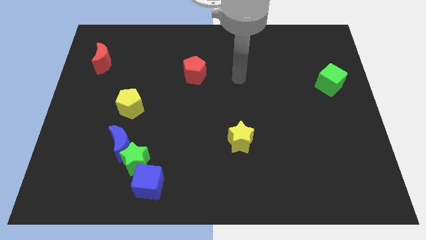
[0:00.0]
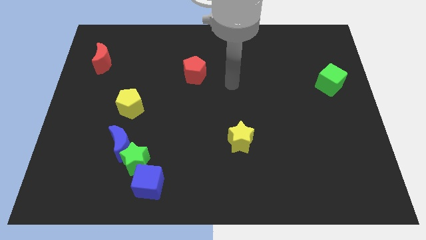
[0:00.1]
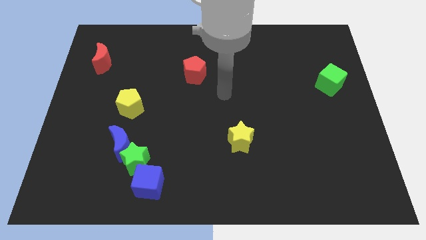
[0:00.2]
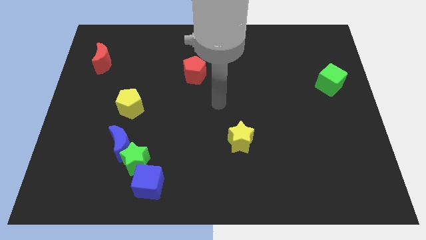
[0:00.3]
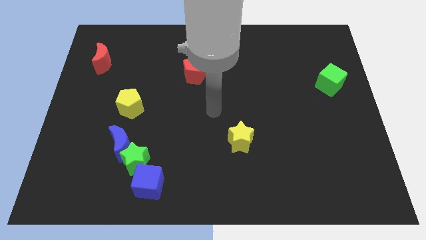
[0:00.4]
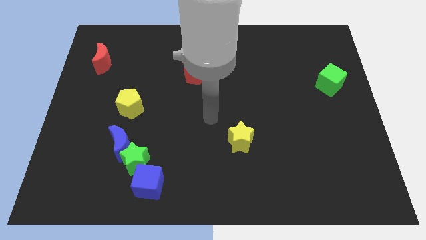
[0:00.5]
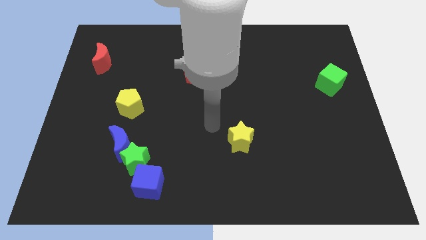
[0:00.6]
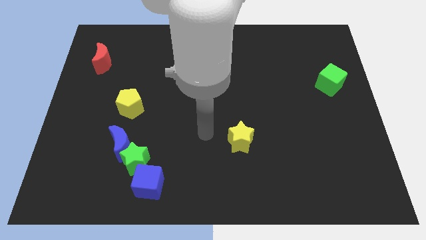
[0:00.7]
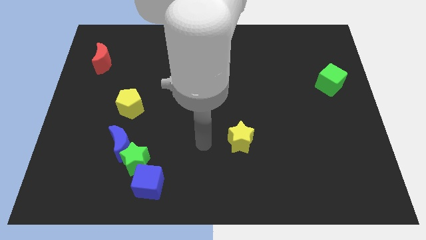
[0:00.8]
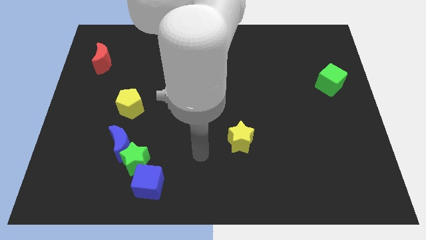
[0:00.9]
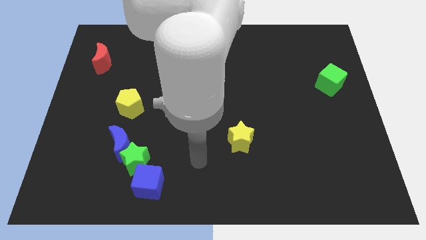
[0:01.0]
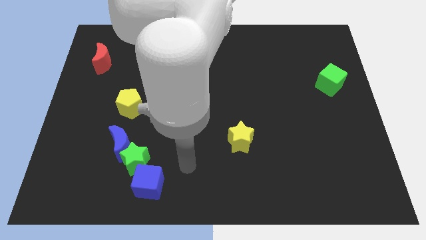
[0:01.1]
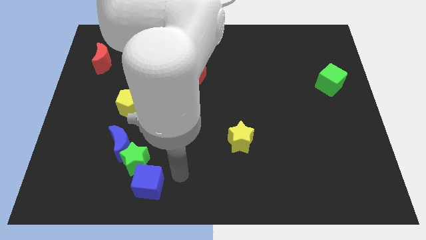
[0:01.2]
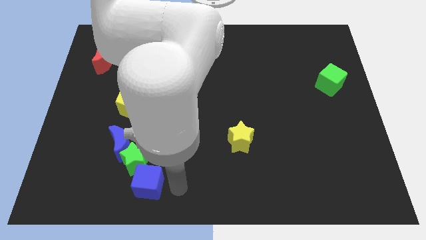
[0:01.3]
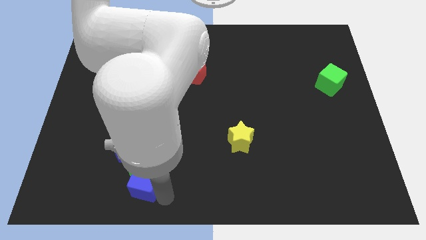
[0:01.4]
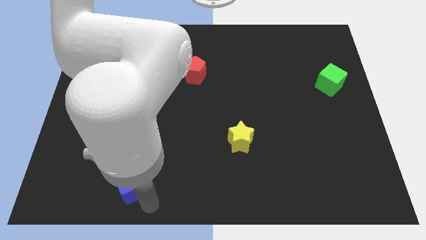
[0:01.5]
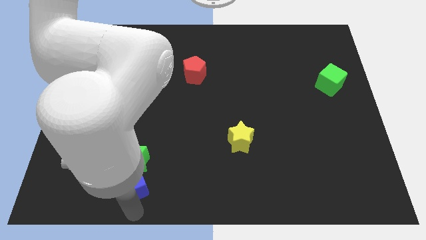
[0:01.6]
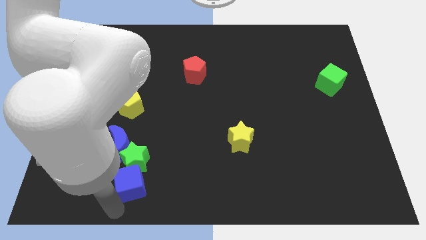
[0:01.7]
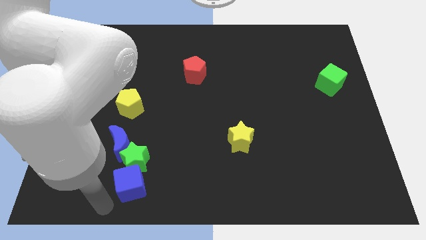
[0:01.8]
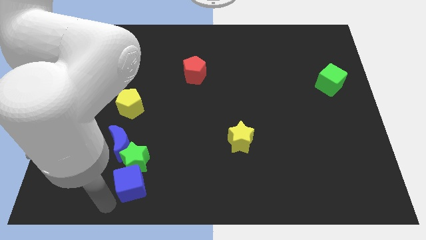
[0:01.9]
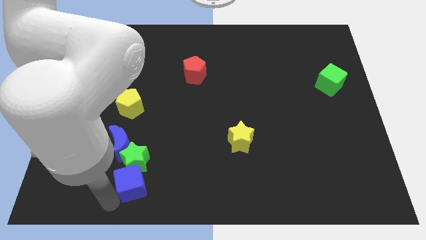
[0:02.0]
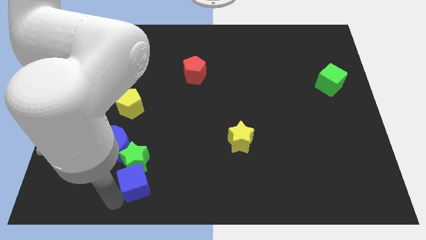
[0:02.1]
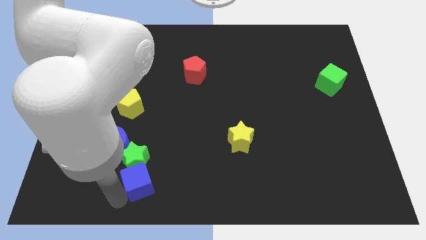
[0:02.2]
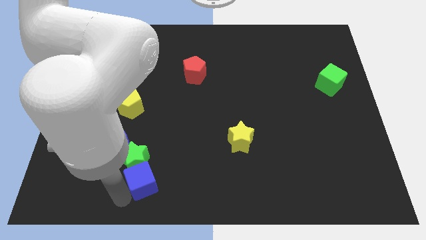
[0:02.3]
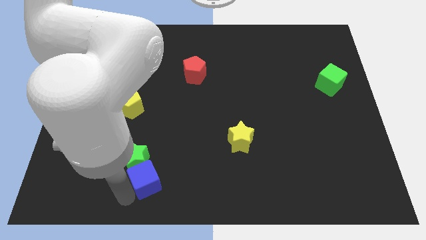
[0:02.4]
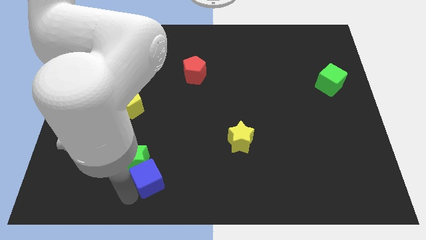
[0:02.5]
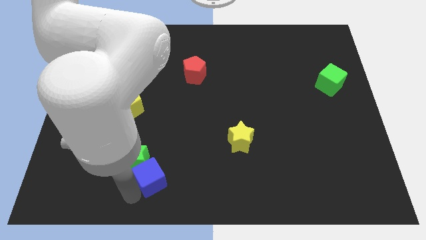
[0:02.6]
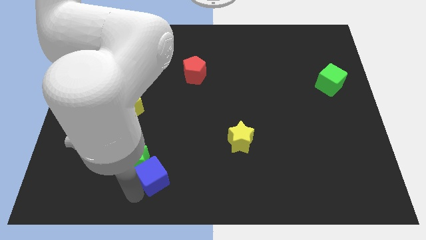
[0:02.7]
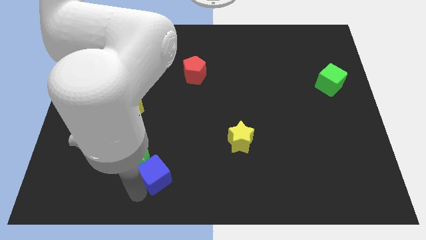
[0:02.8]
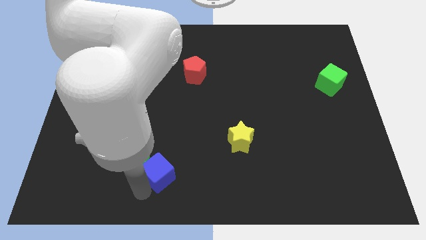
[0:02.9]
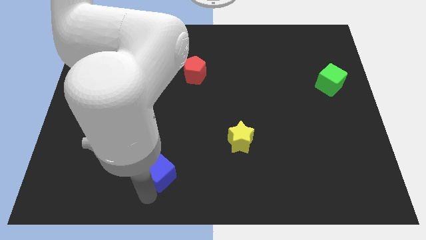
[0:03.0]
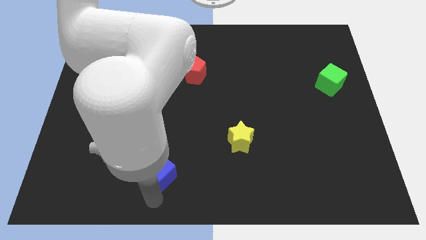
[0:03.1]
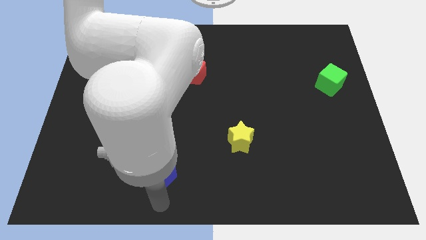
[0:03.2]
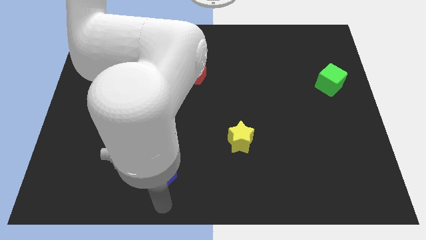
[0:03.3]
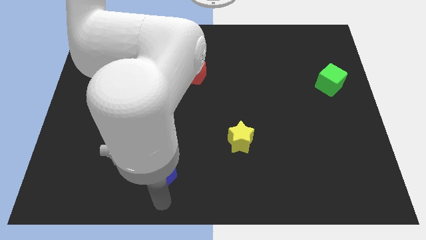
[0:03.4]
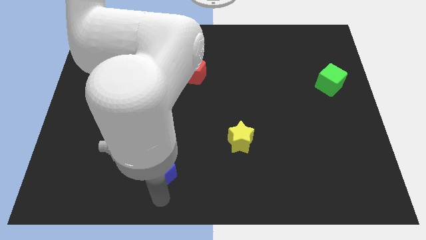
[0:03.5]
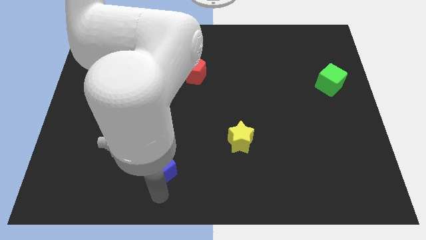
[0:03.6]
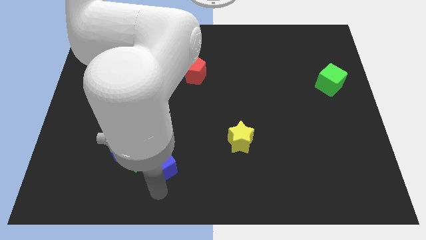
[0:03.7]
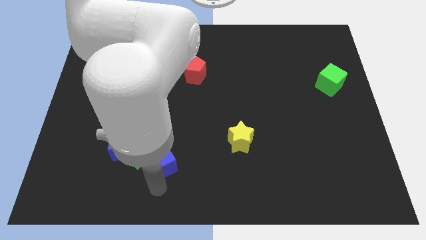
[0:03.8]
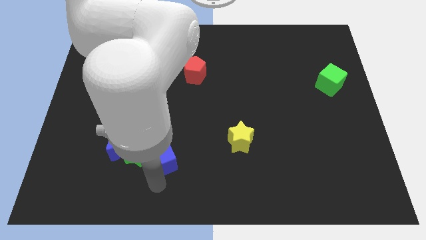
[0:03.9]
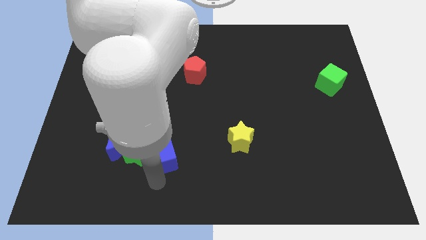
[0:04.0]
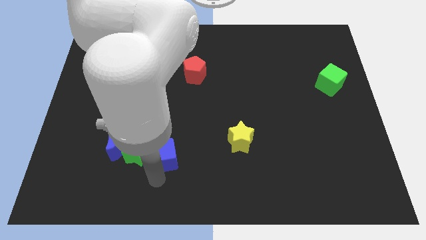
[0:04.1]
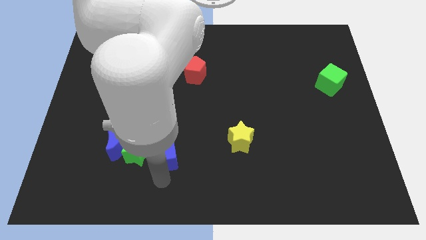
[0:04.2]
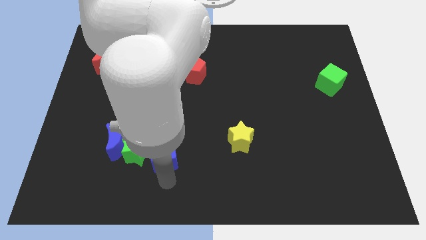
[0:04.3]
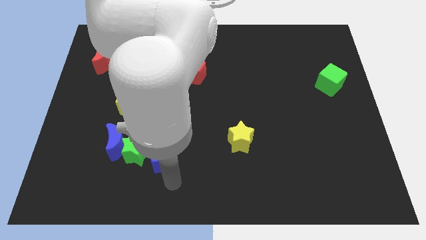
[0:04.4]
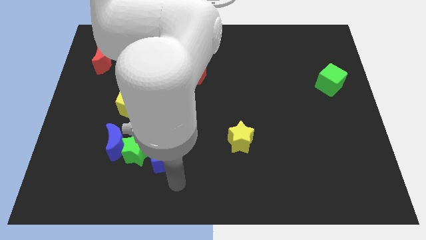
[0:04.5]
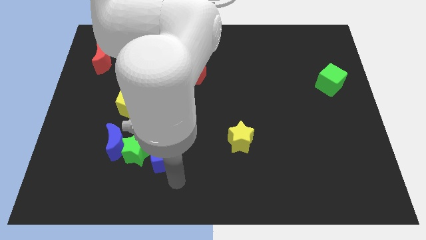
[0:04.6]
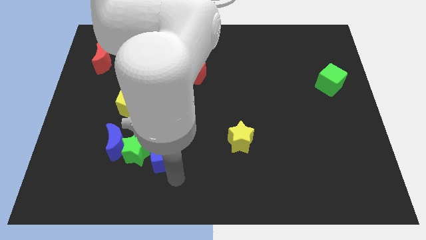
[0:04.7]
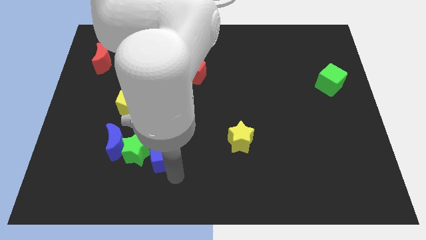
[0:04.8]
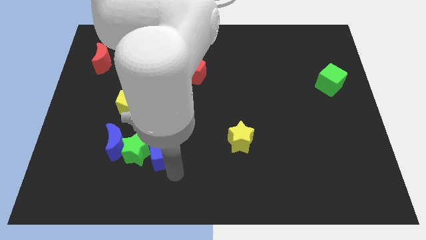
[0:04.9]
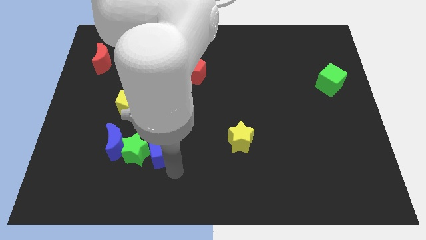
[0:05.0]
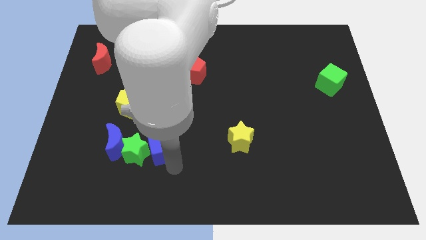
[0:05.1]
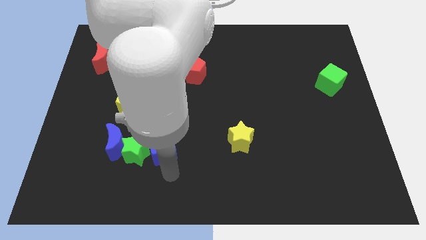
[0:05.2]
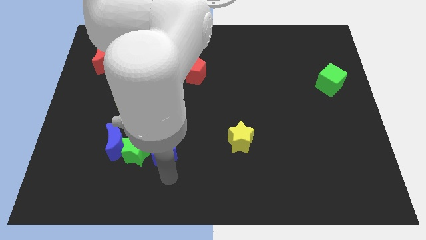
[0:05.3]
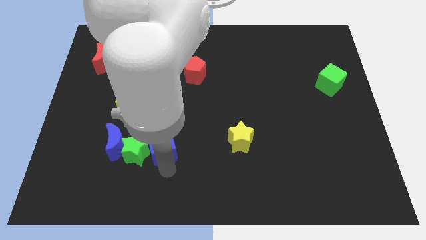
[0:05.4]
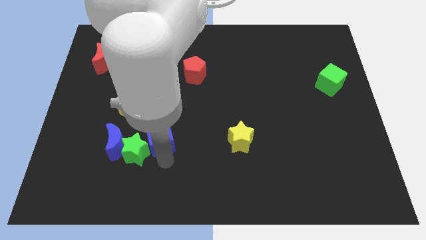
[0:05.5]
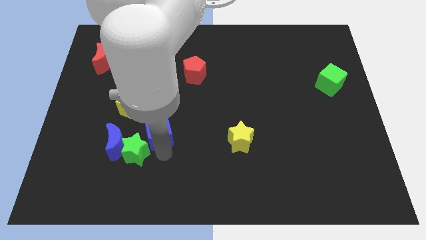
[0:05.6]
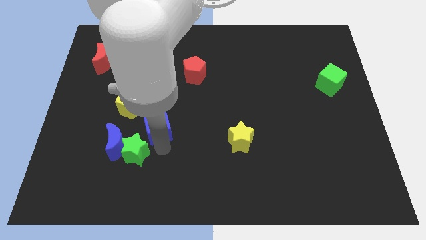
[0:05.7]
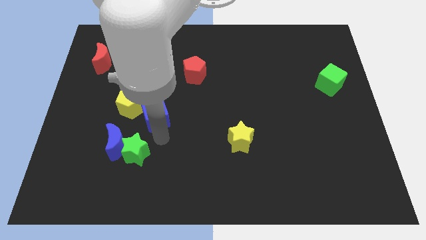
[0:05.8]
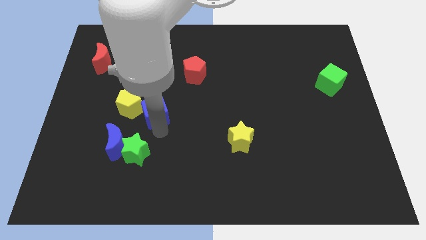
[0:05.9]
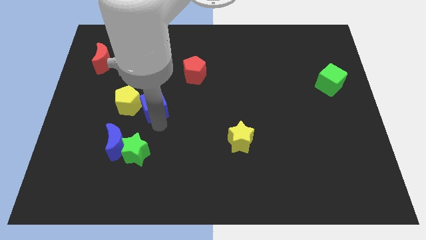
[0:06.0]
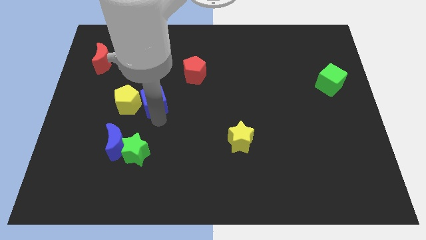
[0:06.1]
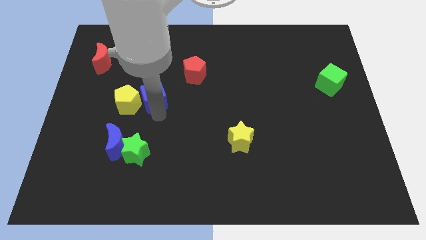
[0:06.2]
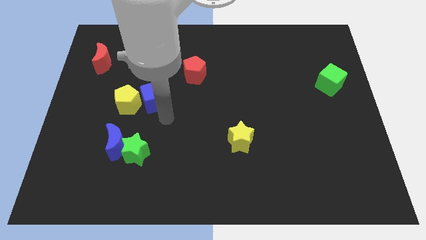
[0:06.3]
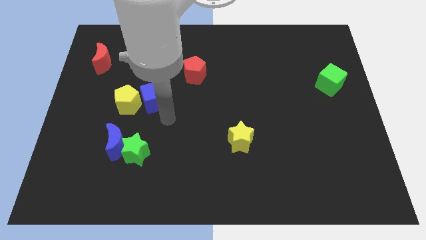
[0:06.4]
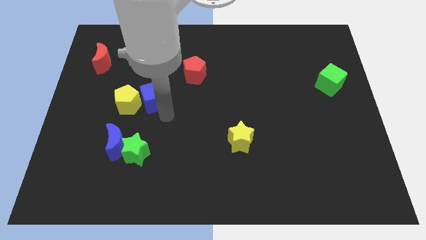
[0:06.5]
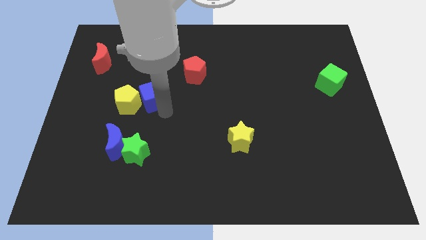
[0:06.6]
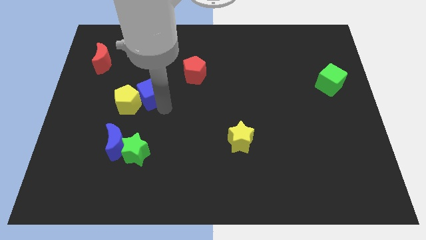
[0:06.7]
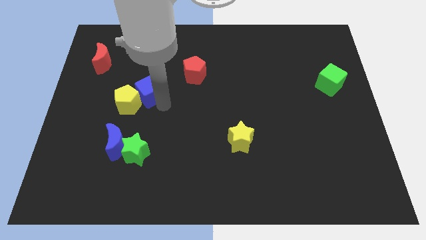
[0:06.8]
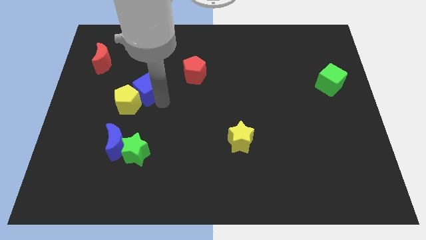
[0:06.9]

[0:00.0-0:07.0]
push the blue cube above the yellow pentagon

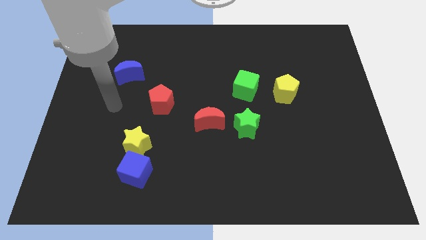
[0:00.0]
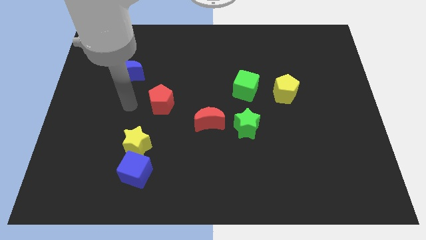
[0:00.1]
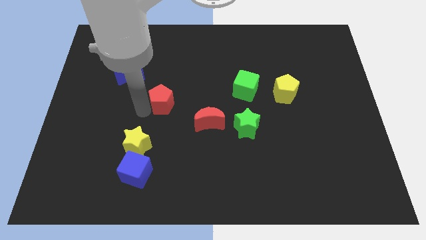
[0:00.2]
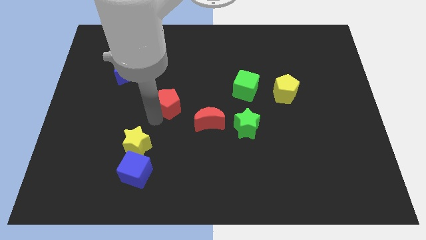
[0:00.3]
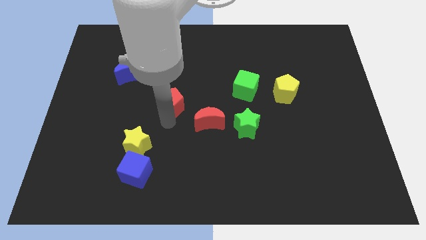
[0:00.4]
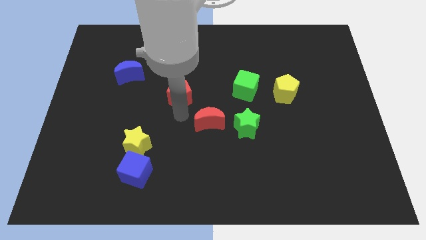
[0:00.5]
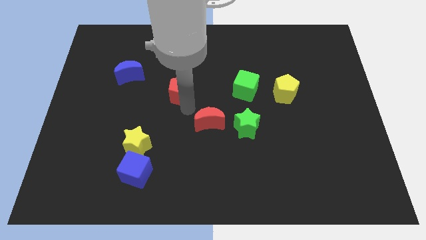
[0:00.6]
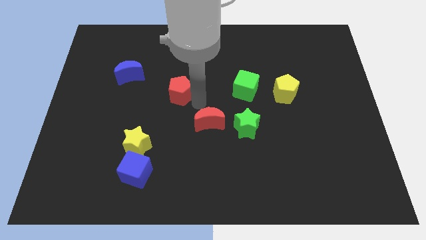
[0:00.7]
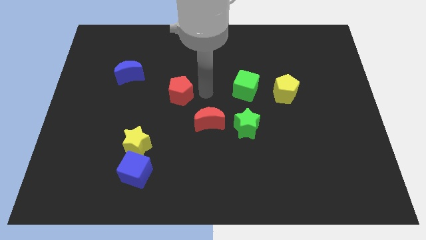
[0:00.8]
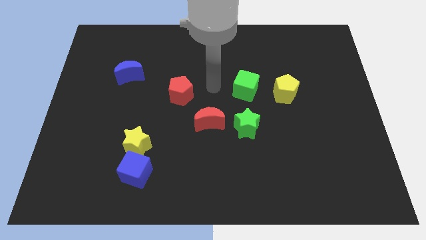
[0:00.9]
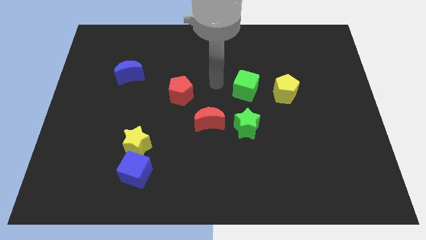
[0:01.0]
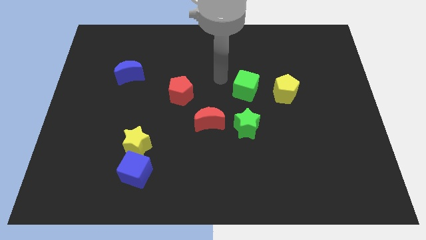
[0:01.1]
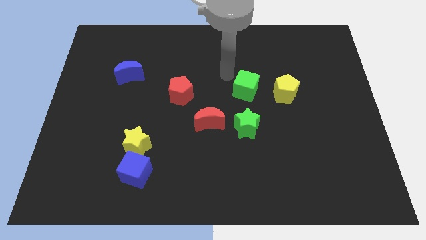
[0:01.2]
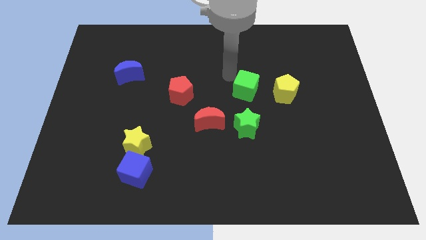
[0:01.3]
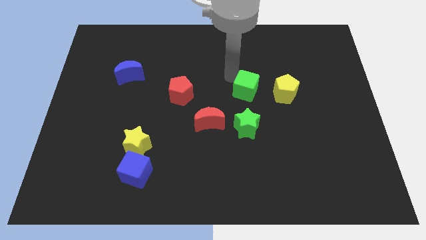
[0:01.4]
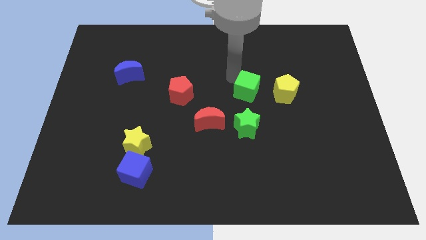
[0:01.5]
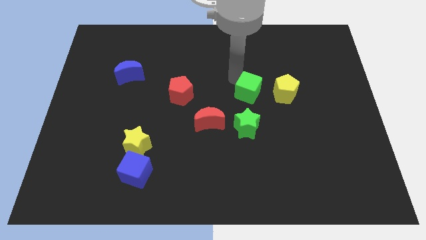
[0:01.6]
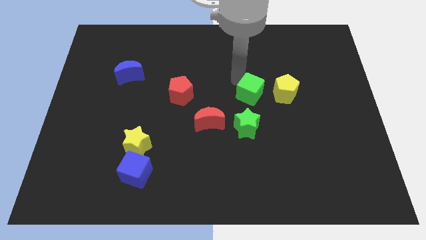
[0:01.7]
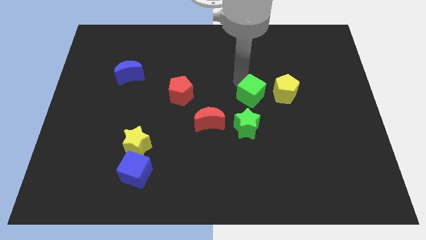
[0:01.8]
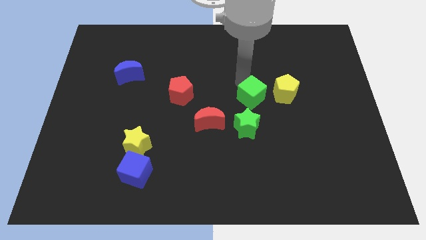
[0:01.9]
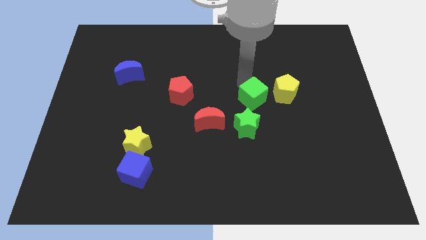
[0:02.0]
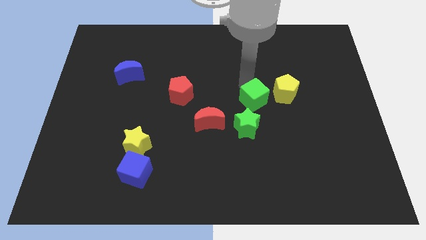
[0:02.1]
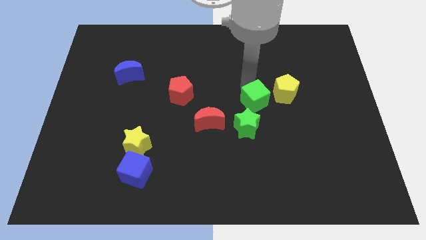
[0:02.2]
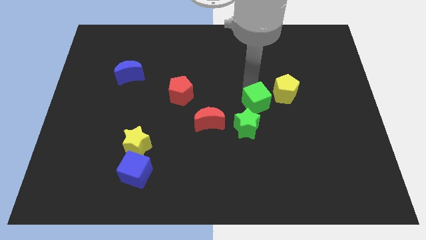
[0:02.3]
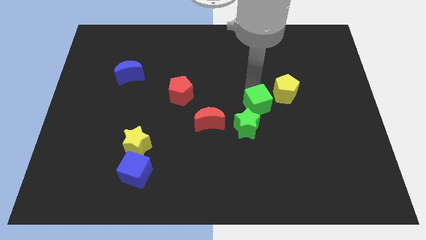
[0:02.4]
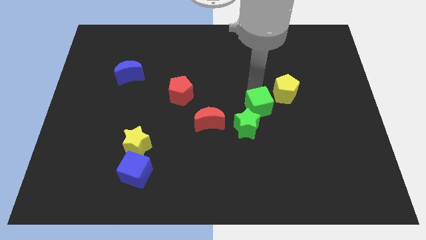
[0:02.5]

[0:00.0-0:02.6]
slide the green cube to the right side of the red moon
